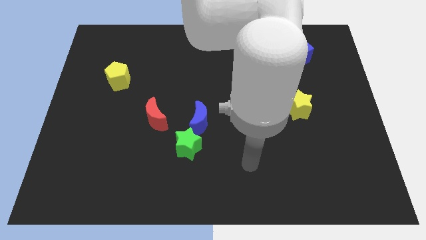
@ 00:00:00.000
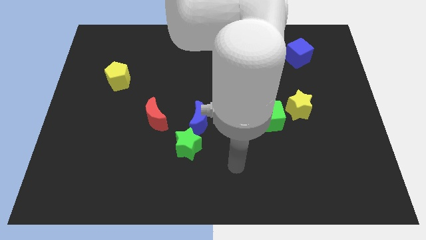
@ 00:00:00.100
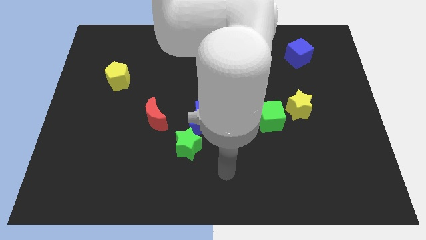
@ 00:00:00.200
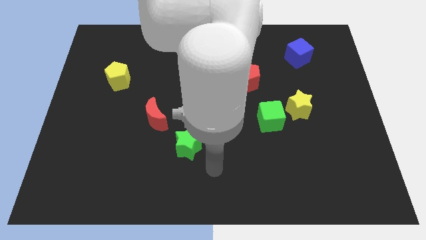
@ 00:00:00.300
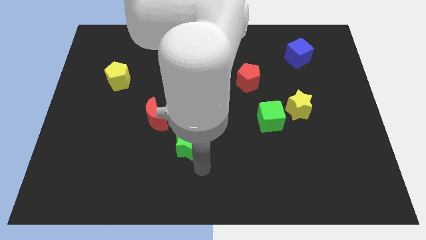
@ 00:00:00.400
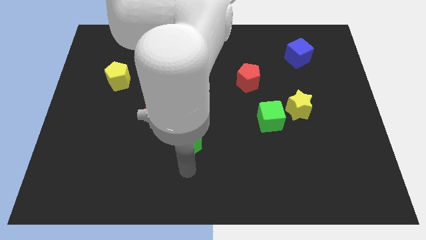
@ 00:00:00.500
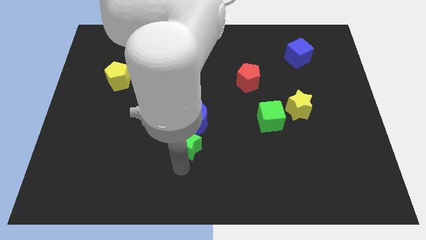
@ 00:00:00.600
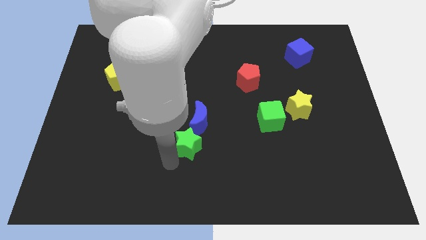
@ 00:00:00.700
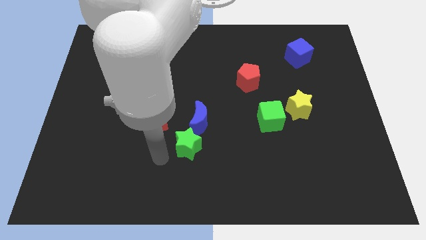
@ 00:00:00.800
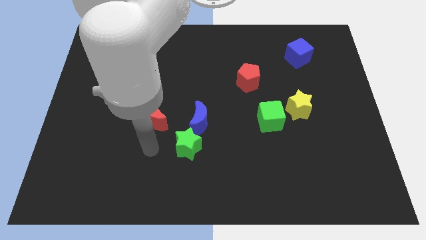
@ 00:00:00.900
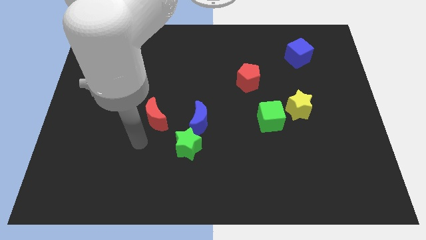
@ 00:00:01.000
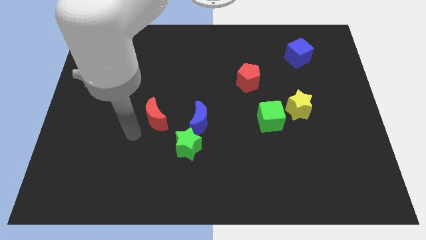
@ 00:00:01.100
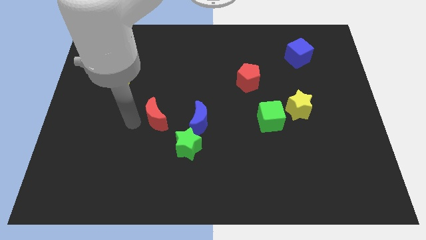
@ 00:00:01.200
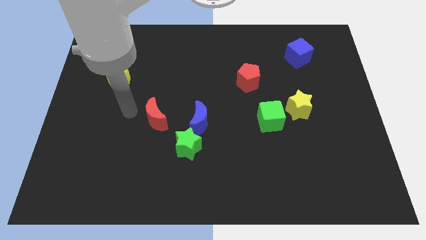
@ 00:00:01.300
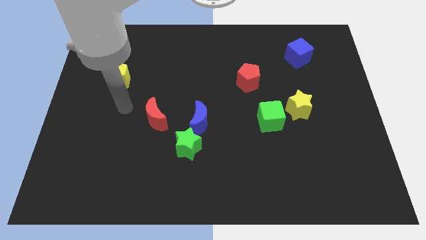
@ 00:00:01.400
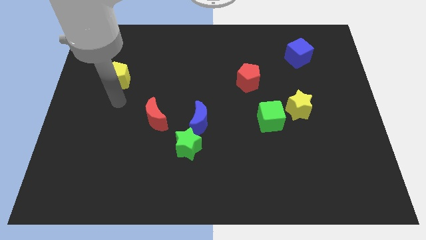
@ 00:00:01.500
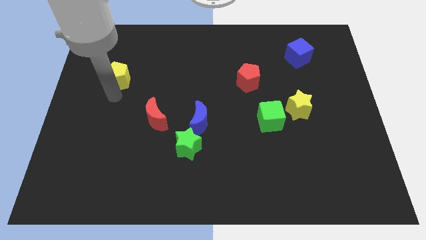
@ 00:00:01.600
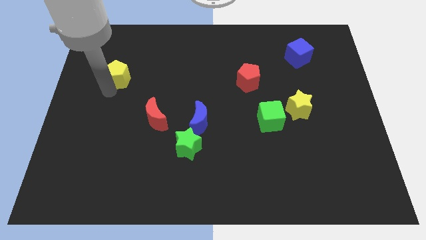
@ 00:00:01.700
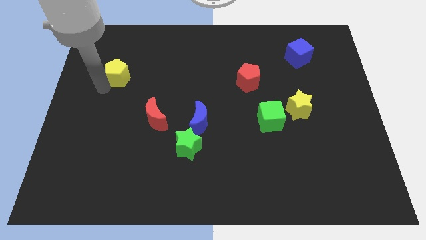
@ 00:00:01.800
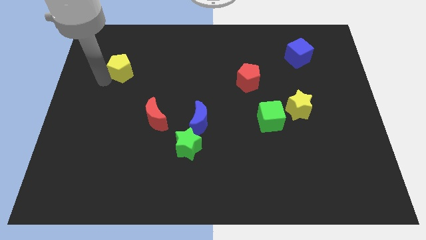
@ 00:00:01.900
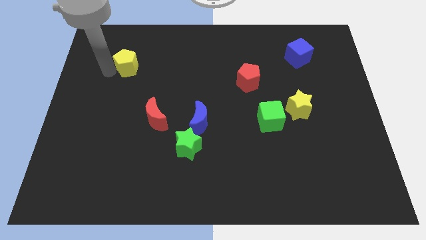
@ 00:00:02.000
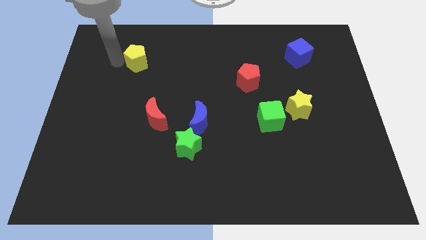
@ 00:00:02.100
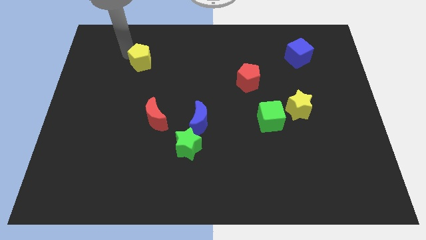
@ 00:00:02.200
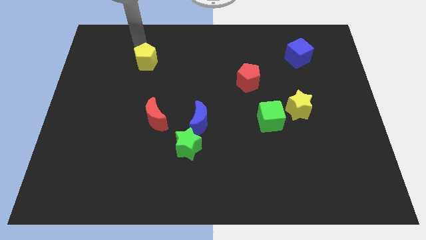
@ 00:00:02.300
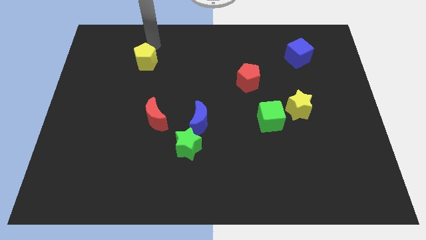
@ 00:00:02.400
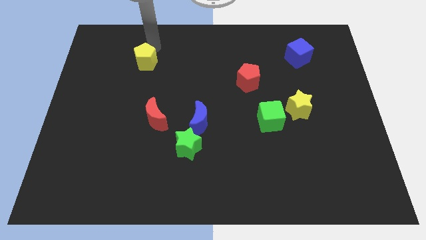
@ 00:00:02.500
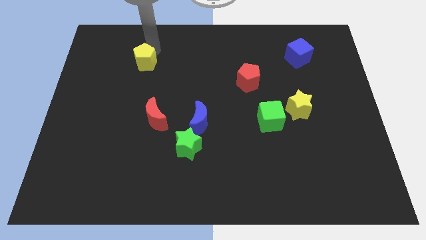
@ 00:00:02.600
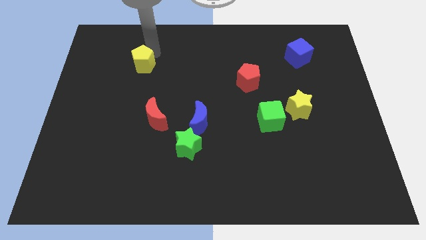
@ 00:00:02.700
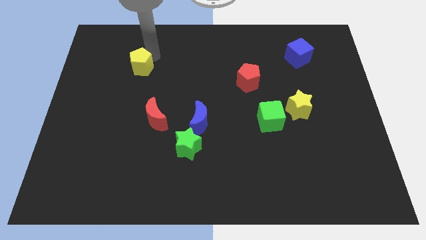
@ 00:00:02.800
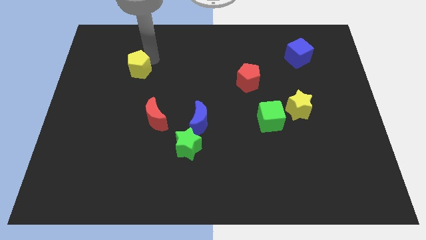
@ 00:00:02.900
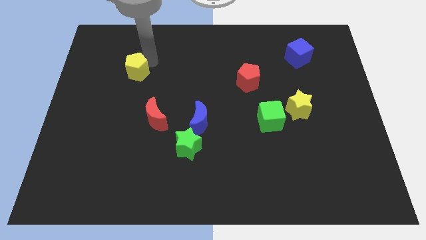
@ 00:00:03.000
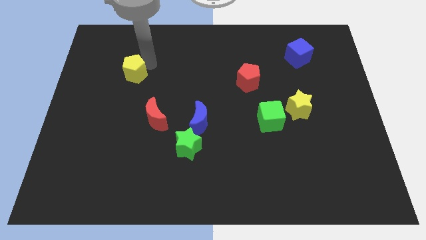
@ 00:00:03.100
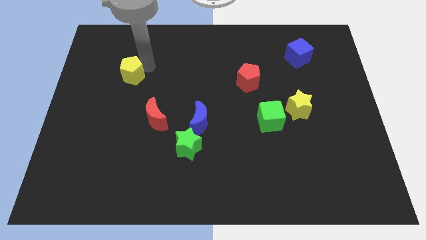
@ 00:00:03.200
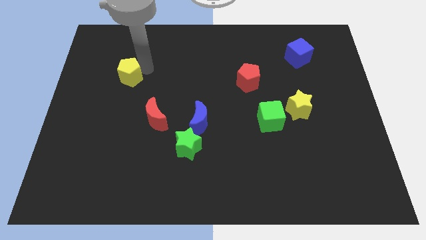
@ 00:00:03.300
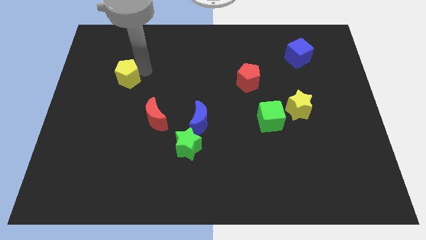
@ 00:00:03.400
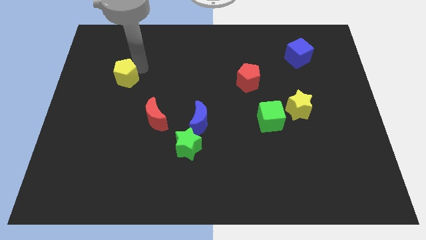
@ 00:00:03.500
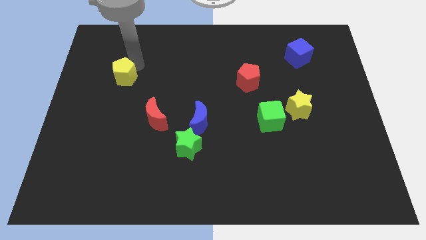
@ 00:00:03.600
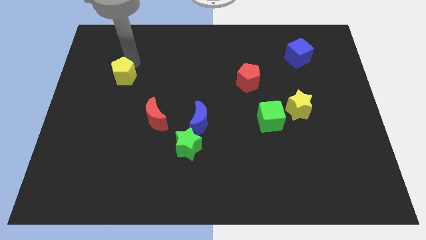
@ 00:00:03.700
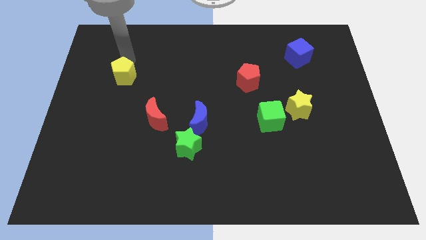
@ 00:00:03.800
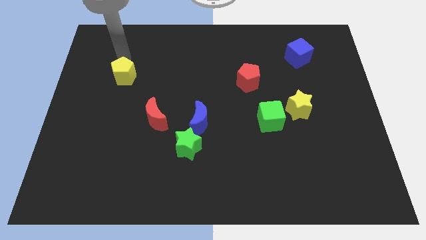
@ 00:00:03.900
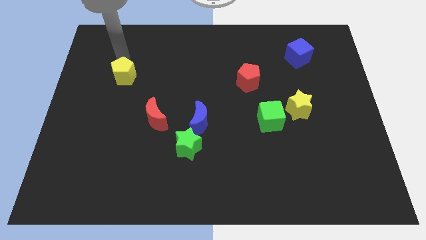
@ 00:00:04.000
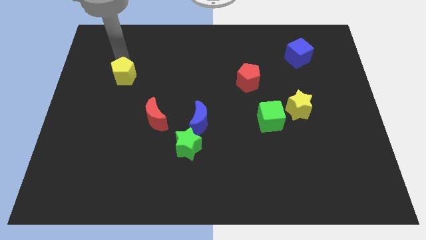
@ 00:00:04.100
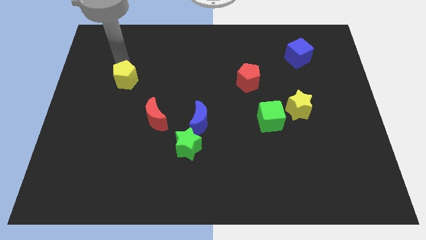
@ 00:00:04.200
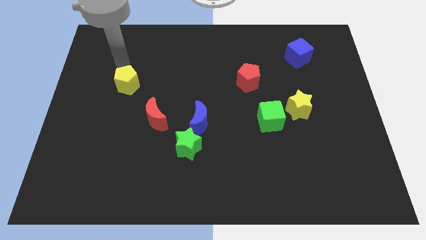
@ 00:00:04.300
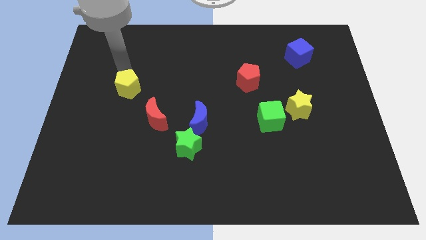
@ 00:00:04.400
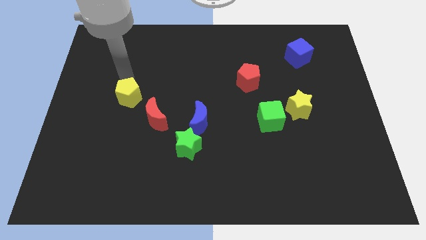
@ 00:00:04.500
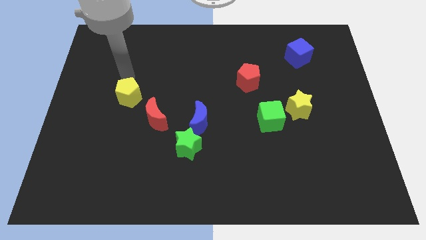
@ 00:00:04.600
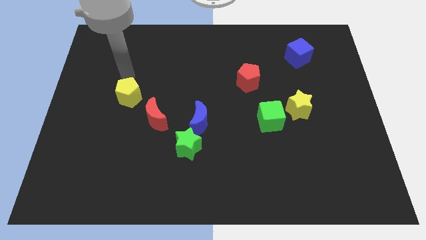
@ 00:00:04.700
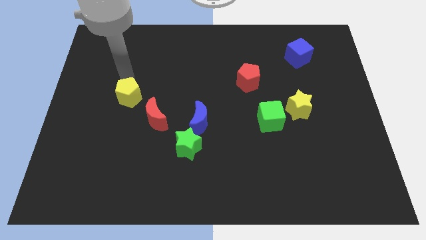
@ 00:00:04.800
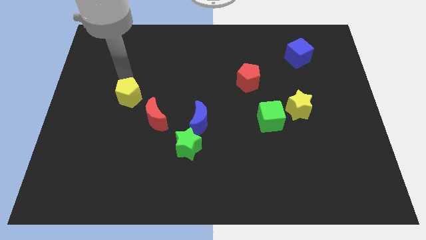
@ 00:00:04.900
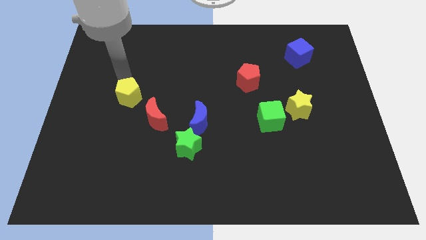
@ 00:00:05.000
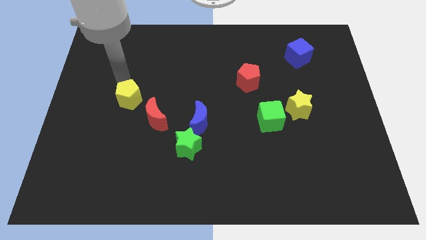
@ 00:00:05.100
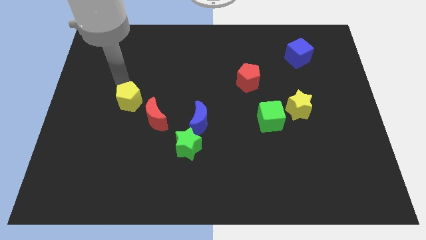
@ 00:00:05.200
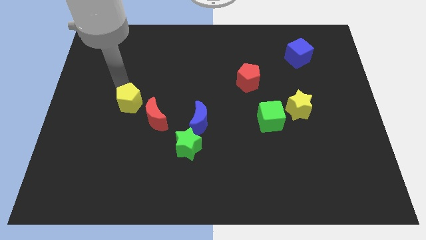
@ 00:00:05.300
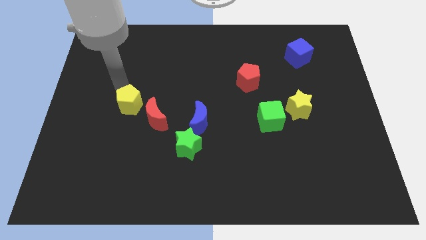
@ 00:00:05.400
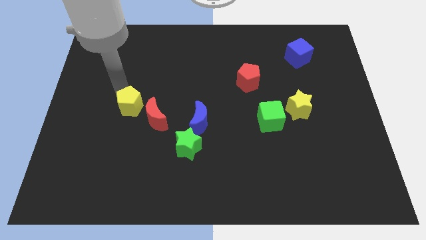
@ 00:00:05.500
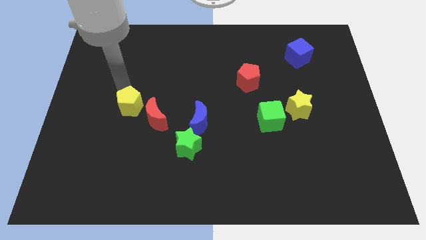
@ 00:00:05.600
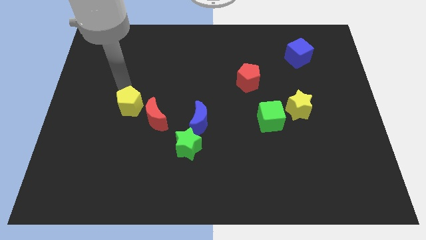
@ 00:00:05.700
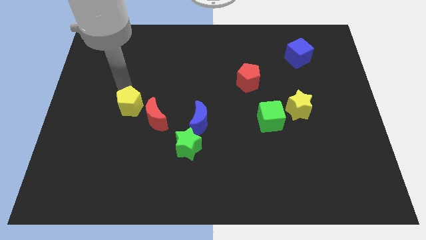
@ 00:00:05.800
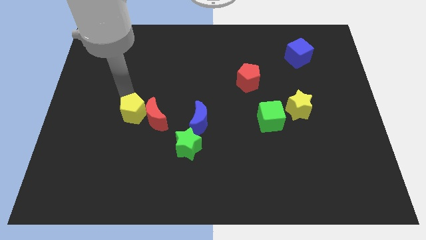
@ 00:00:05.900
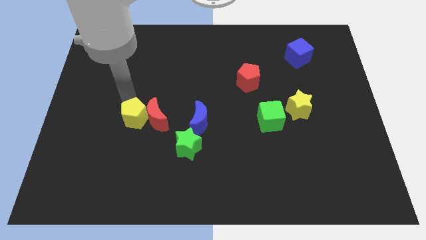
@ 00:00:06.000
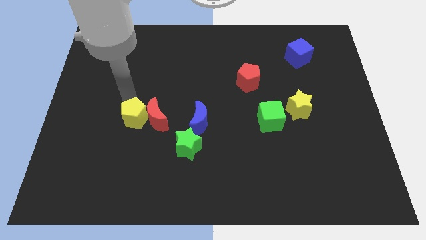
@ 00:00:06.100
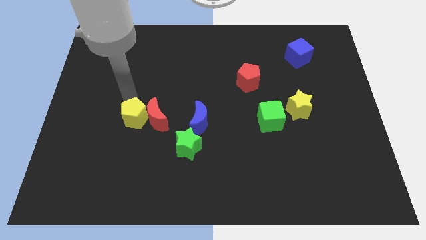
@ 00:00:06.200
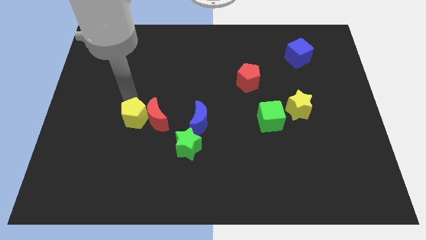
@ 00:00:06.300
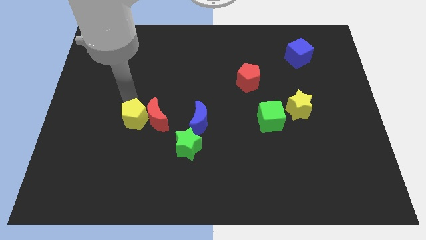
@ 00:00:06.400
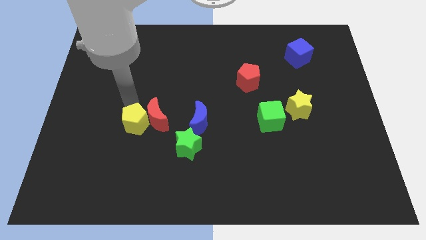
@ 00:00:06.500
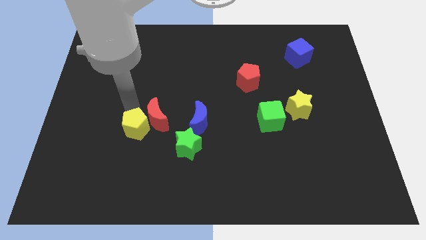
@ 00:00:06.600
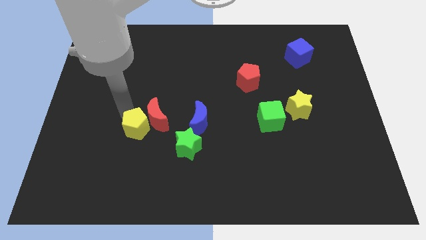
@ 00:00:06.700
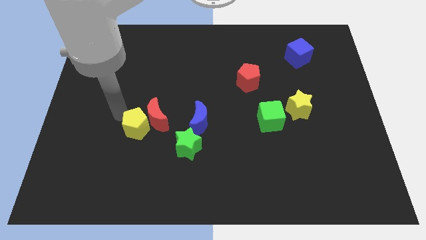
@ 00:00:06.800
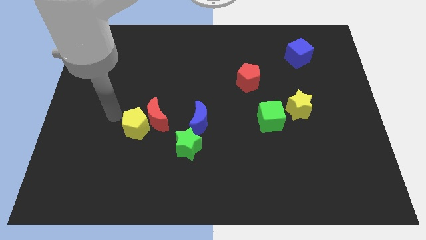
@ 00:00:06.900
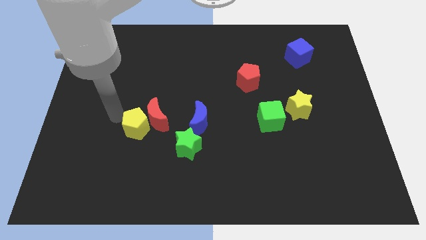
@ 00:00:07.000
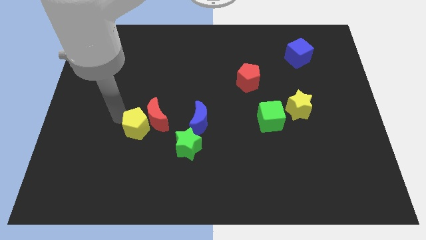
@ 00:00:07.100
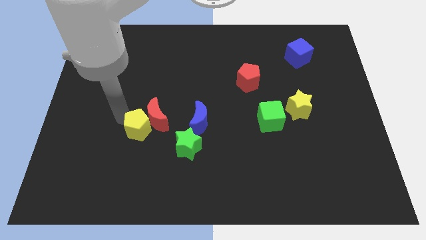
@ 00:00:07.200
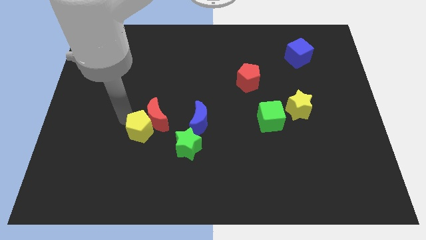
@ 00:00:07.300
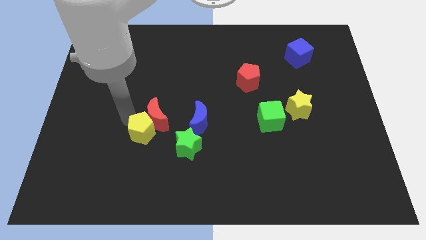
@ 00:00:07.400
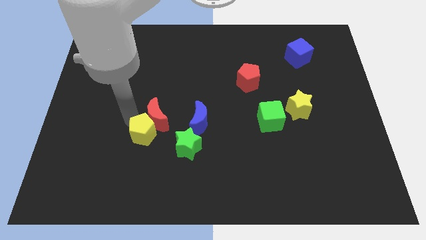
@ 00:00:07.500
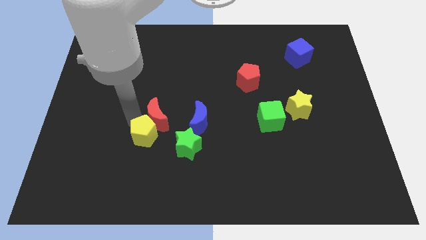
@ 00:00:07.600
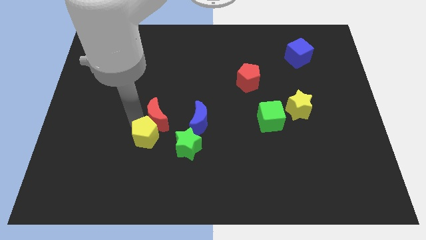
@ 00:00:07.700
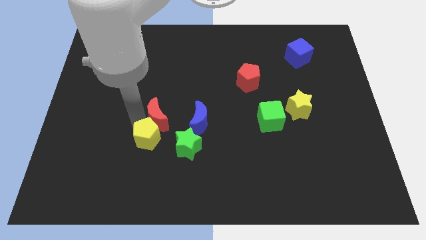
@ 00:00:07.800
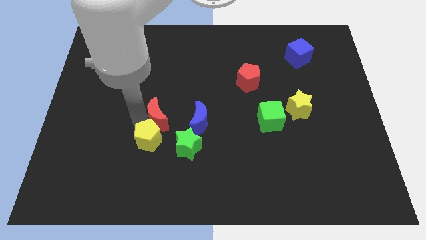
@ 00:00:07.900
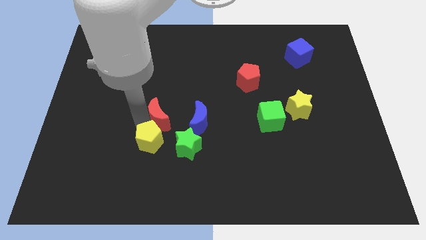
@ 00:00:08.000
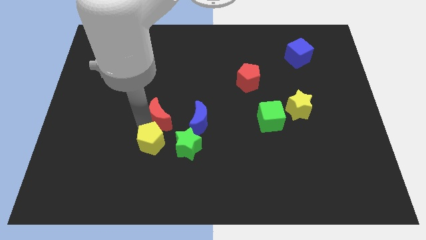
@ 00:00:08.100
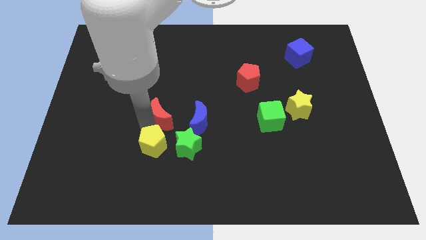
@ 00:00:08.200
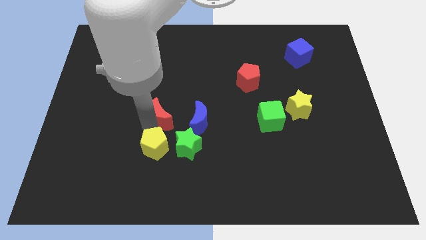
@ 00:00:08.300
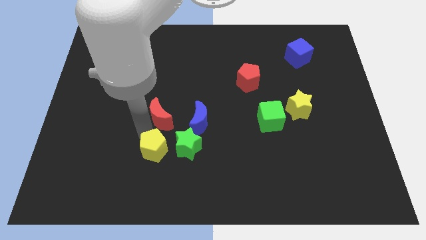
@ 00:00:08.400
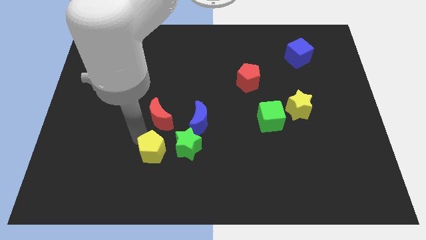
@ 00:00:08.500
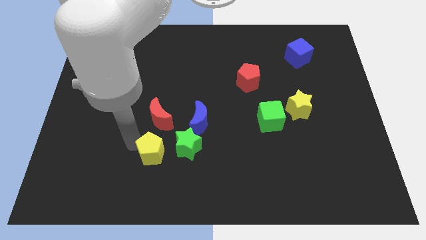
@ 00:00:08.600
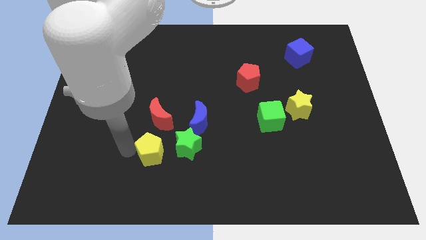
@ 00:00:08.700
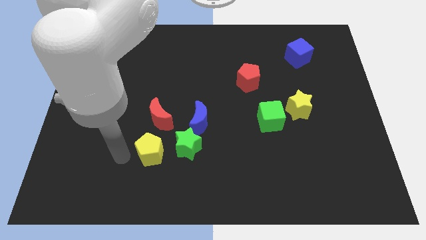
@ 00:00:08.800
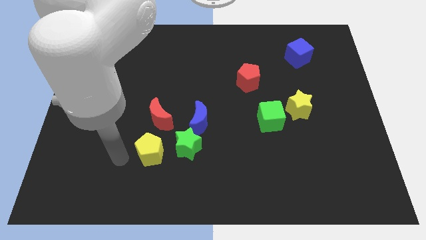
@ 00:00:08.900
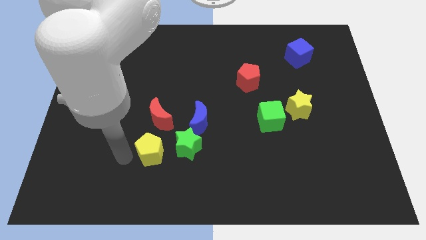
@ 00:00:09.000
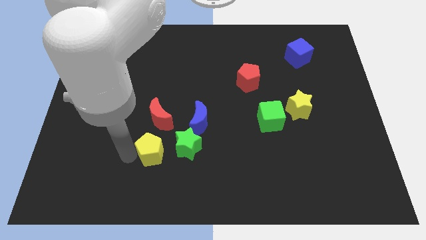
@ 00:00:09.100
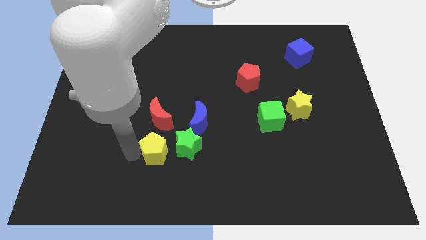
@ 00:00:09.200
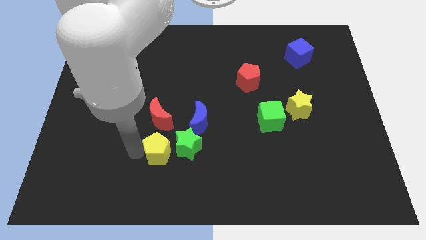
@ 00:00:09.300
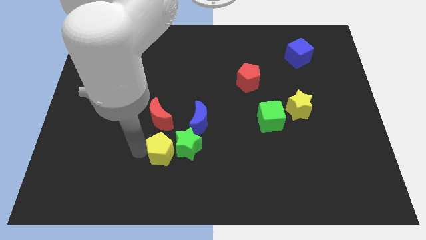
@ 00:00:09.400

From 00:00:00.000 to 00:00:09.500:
move the yellow pentagon next to the green star
